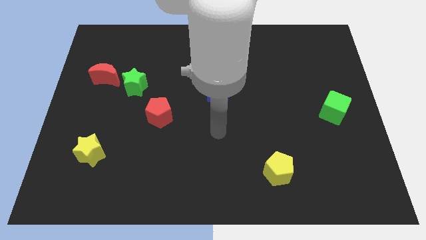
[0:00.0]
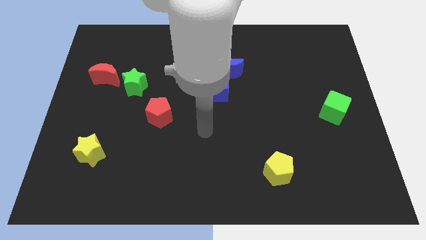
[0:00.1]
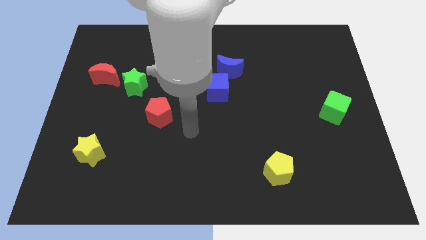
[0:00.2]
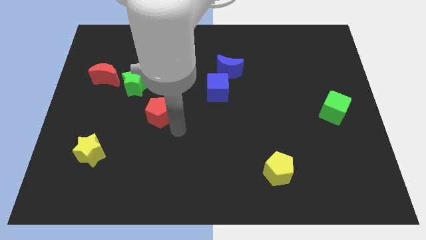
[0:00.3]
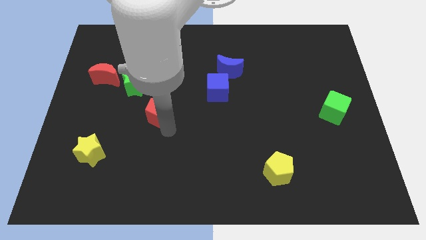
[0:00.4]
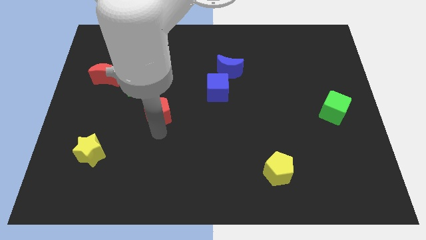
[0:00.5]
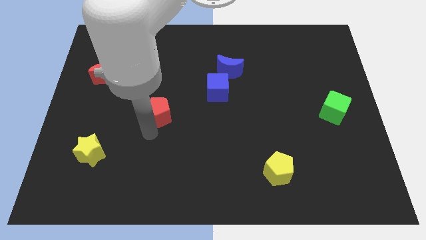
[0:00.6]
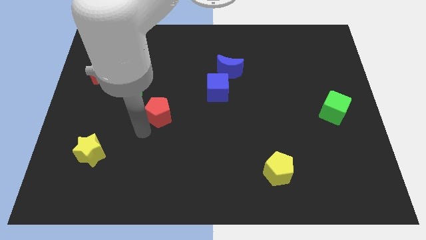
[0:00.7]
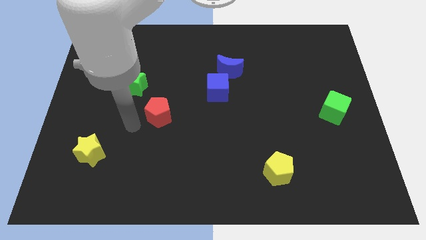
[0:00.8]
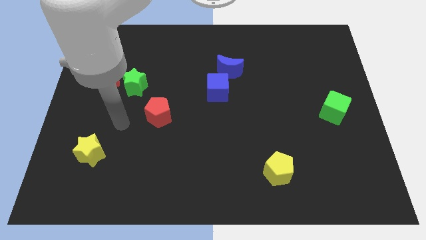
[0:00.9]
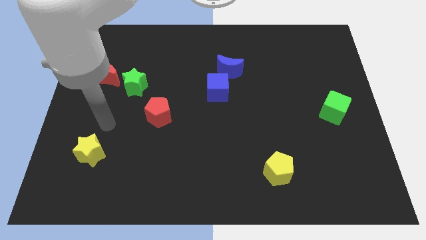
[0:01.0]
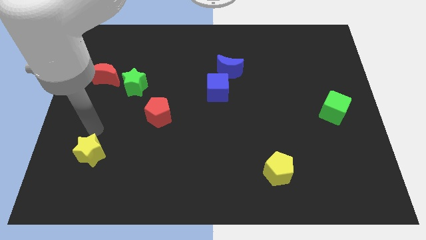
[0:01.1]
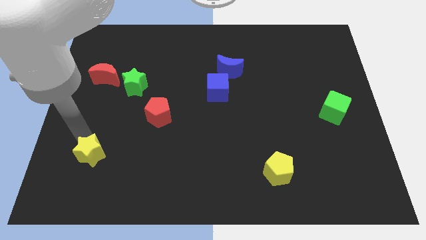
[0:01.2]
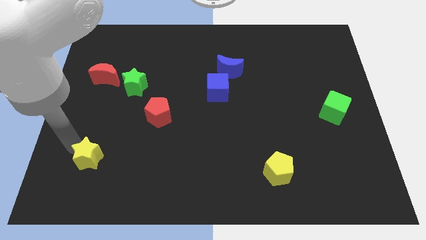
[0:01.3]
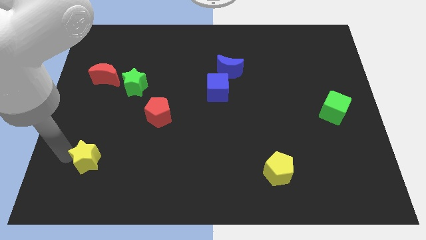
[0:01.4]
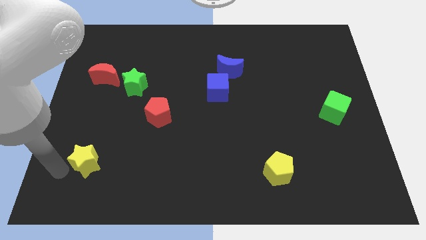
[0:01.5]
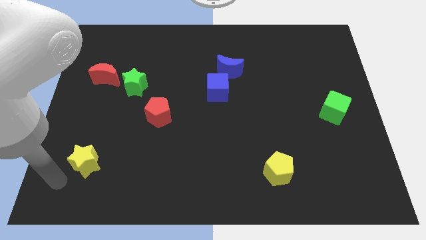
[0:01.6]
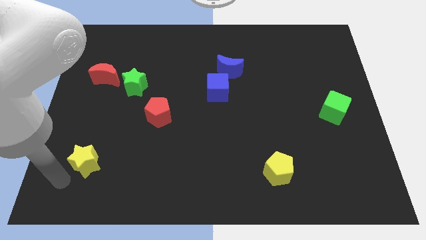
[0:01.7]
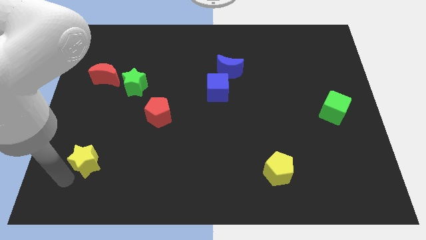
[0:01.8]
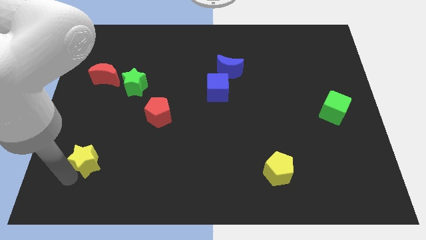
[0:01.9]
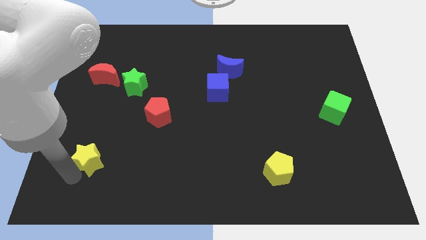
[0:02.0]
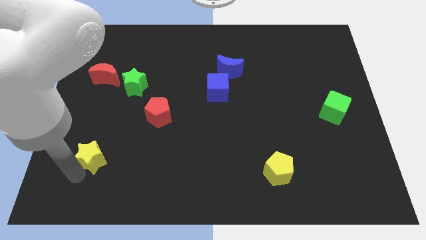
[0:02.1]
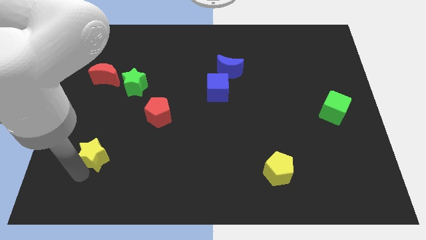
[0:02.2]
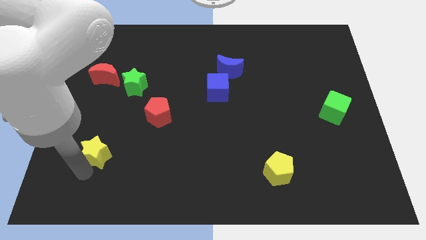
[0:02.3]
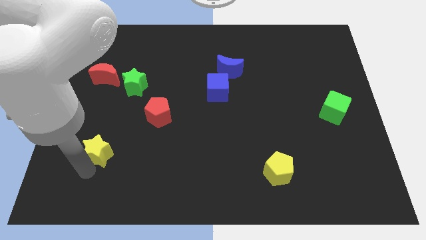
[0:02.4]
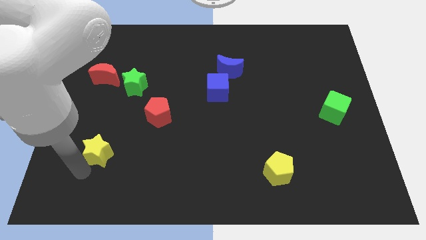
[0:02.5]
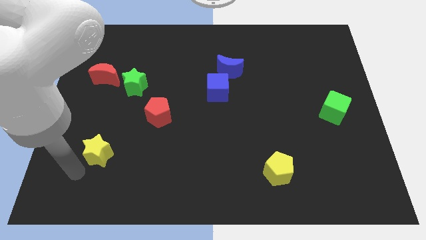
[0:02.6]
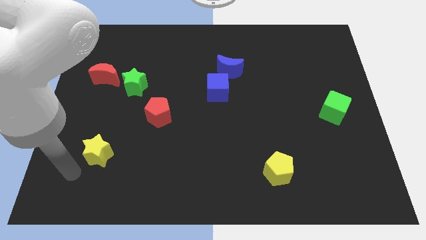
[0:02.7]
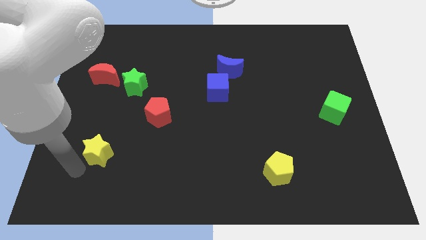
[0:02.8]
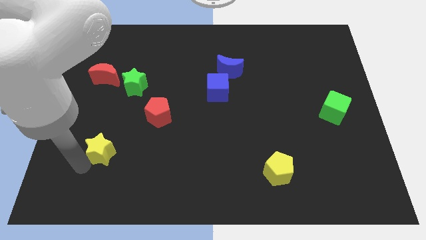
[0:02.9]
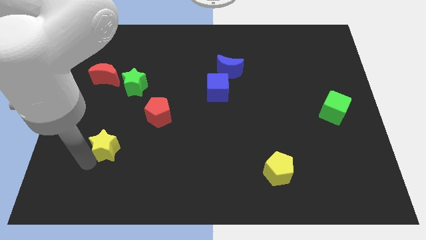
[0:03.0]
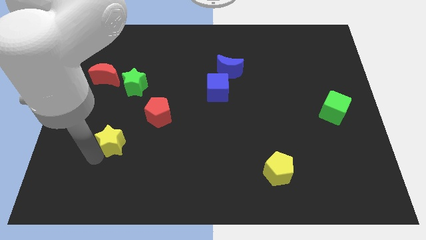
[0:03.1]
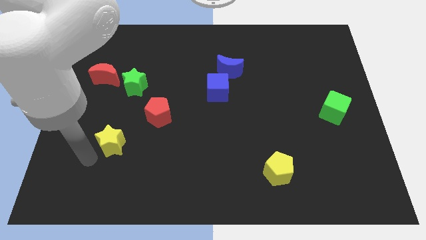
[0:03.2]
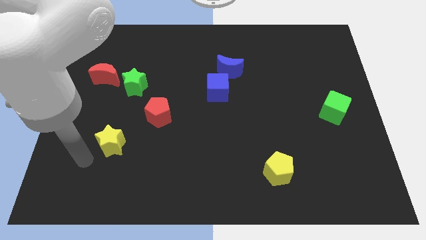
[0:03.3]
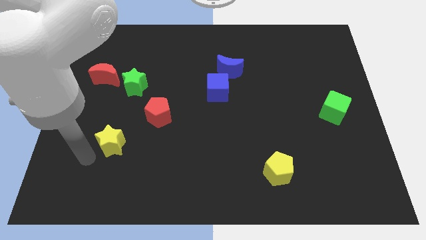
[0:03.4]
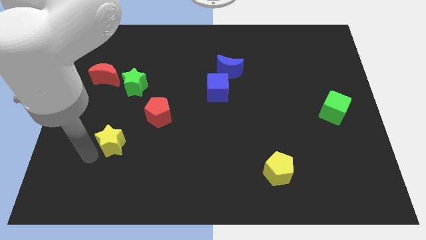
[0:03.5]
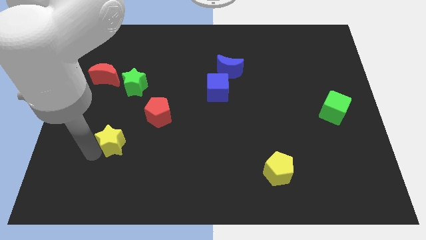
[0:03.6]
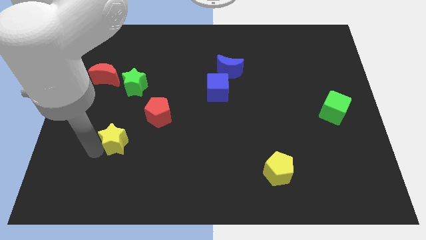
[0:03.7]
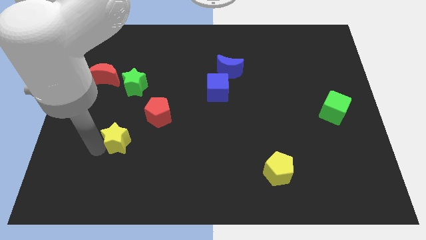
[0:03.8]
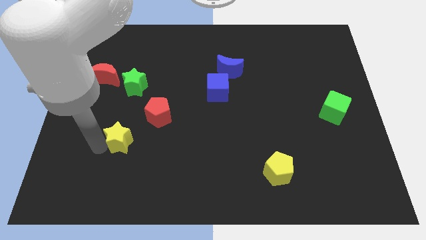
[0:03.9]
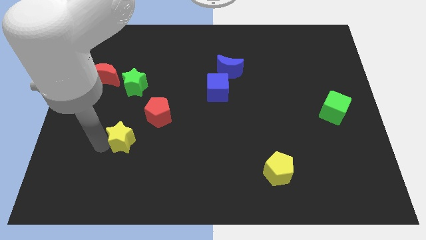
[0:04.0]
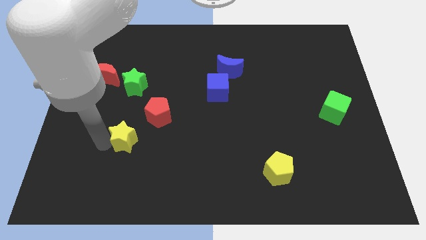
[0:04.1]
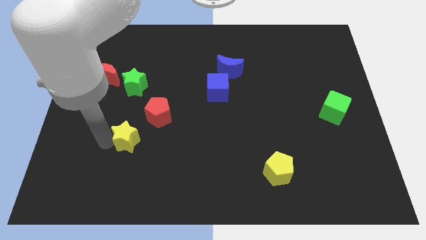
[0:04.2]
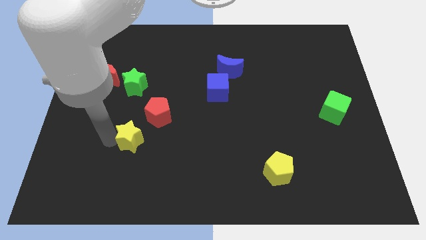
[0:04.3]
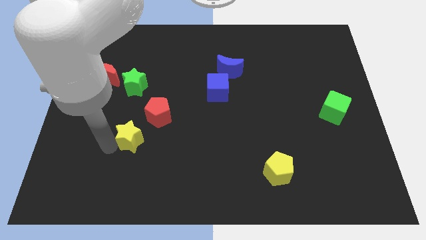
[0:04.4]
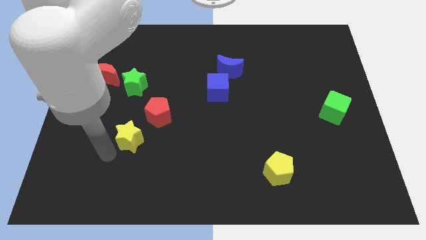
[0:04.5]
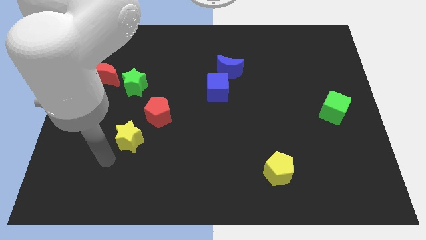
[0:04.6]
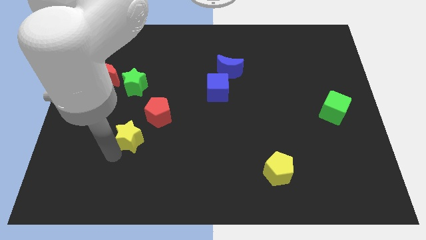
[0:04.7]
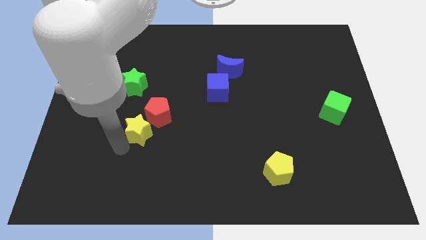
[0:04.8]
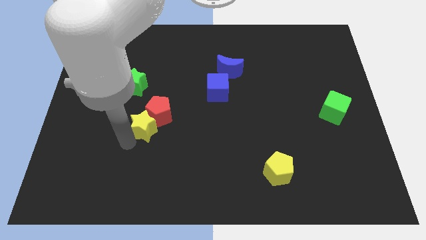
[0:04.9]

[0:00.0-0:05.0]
move the yellow star close to the red pentagon

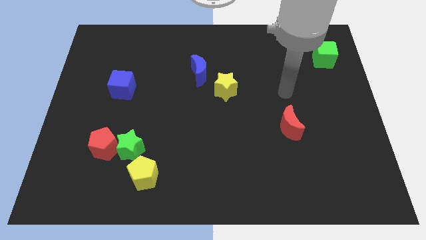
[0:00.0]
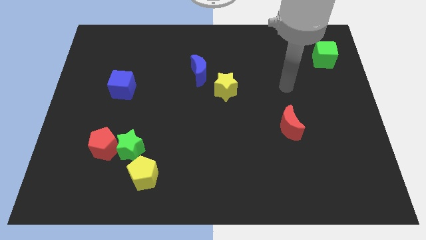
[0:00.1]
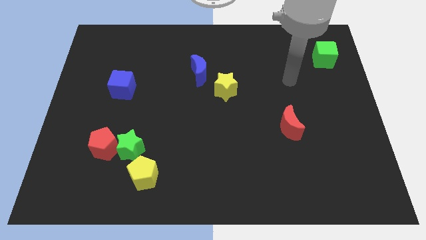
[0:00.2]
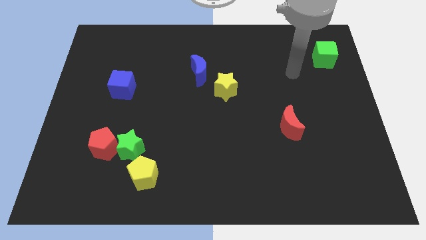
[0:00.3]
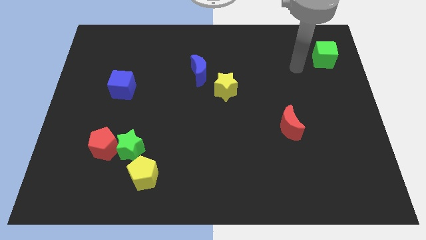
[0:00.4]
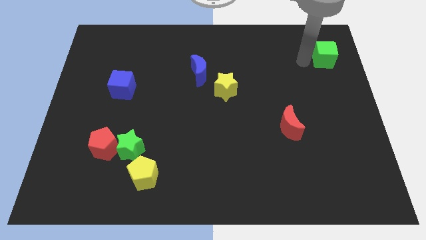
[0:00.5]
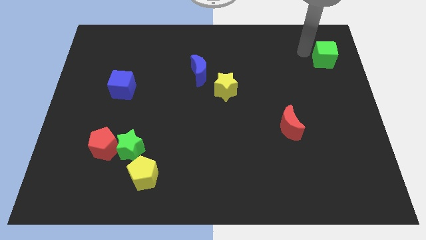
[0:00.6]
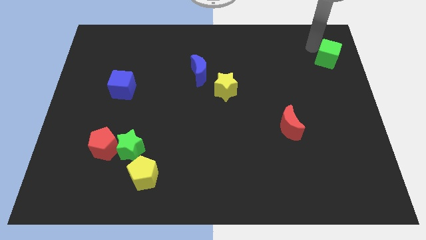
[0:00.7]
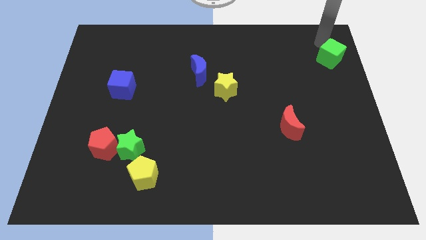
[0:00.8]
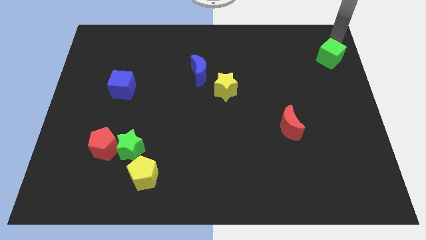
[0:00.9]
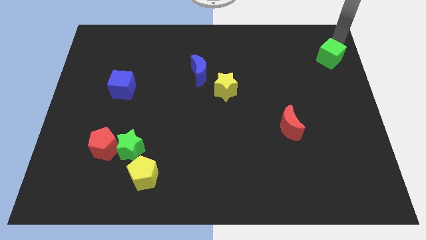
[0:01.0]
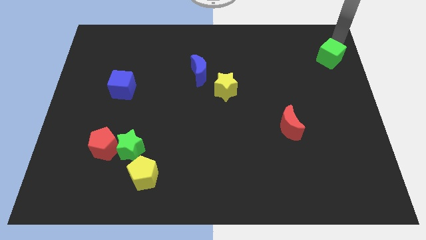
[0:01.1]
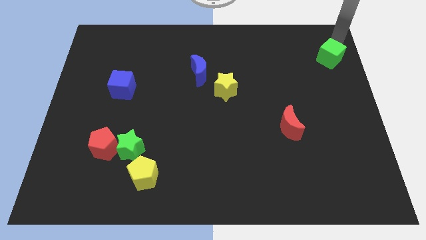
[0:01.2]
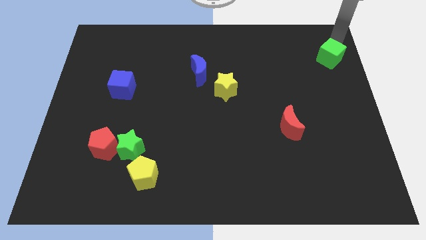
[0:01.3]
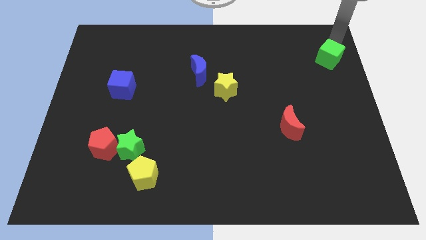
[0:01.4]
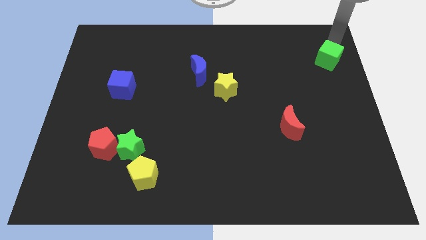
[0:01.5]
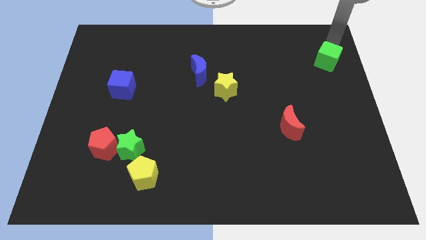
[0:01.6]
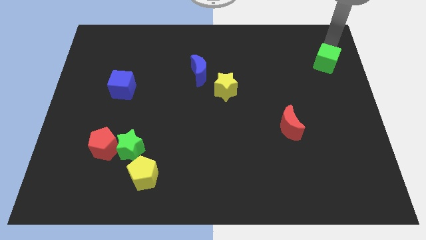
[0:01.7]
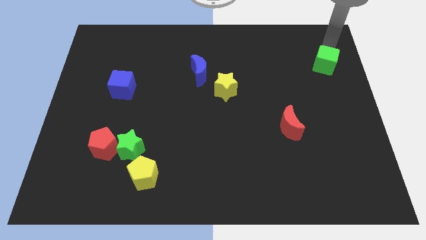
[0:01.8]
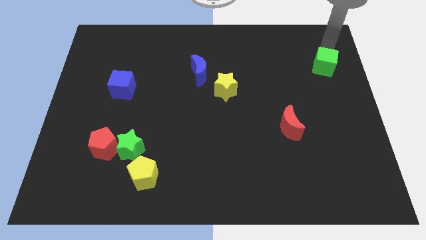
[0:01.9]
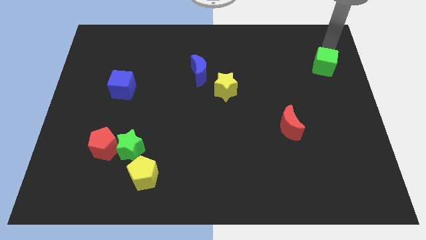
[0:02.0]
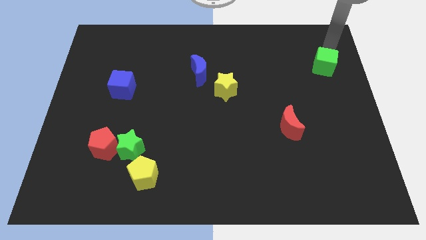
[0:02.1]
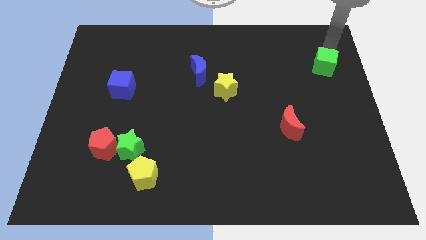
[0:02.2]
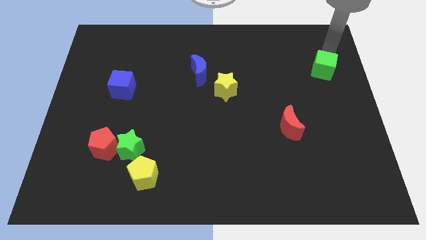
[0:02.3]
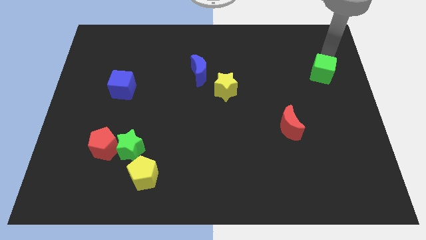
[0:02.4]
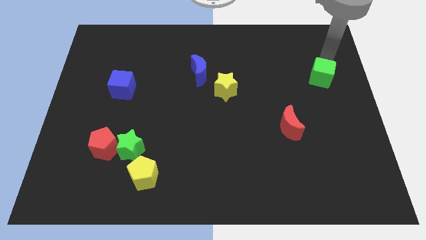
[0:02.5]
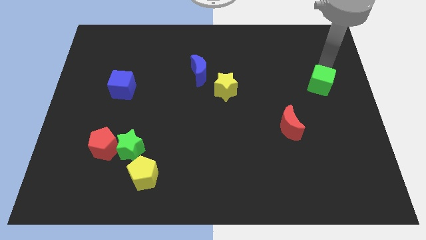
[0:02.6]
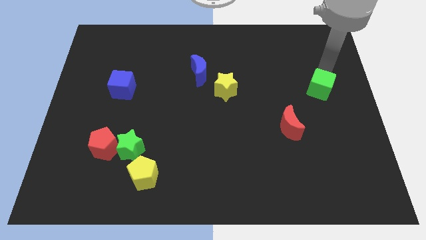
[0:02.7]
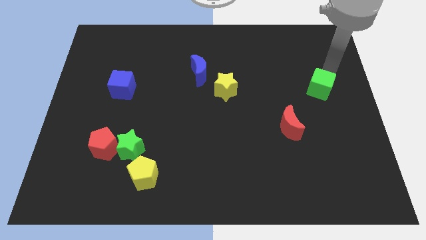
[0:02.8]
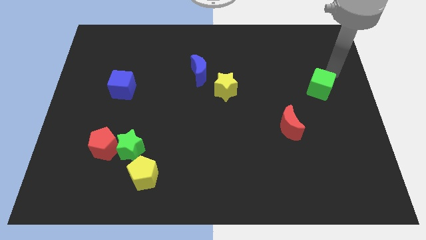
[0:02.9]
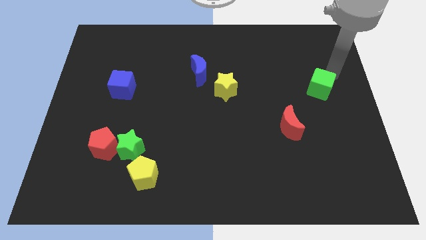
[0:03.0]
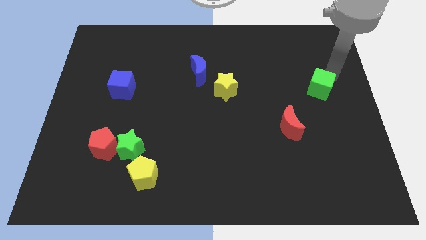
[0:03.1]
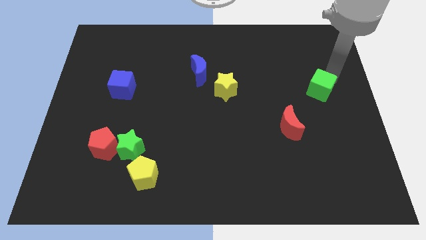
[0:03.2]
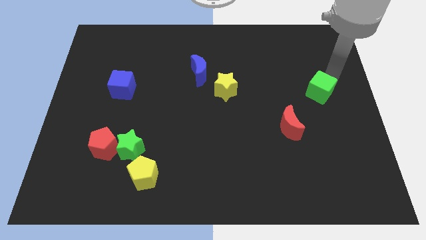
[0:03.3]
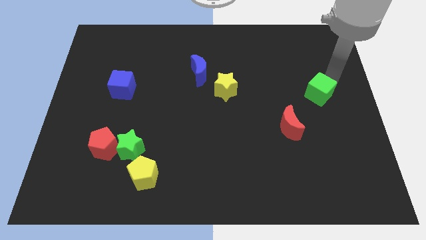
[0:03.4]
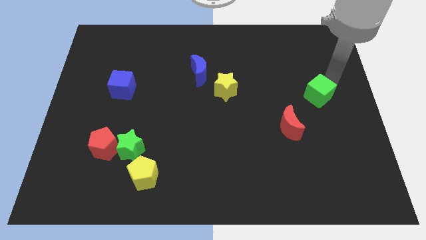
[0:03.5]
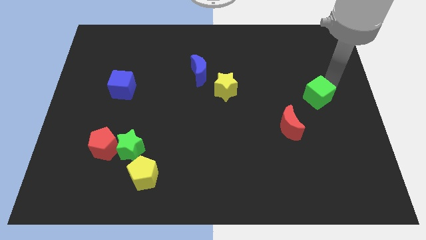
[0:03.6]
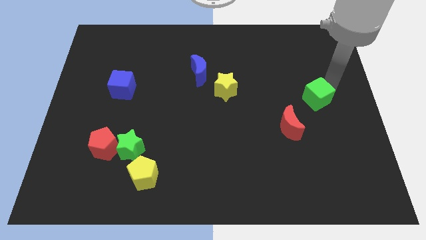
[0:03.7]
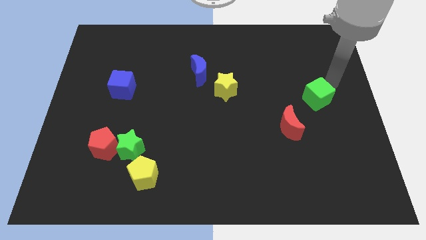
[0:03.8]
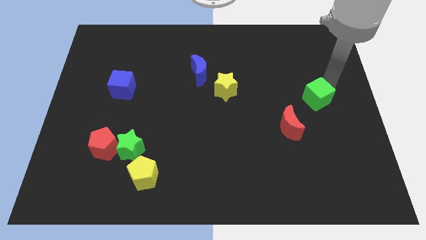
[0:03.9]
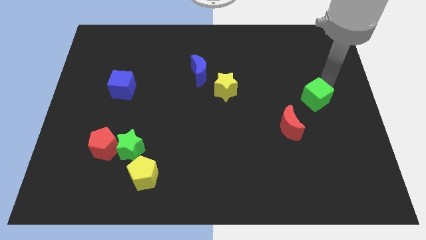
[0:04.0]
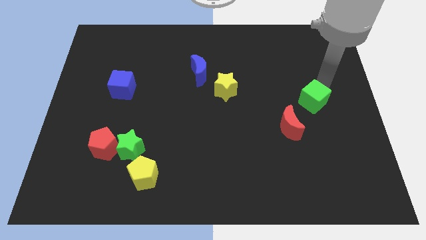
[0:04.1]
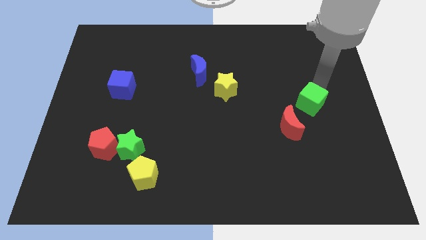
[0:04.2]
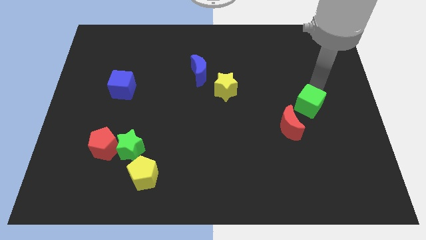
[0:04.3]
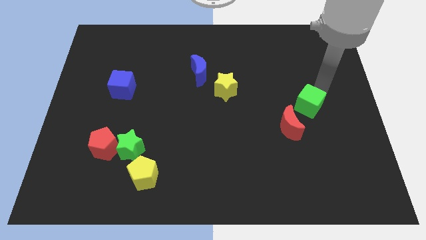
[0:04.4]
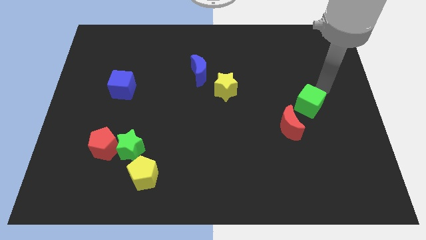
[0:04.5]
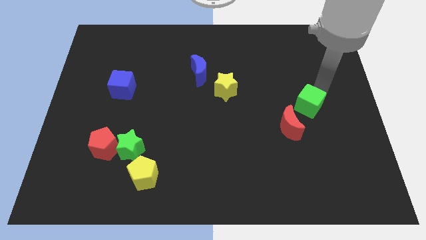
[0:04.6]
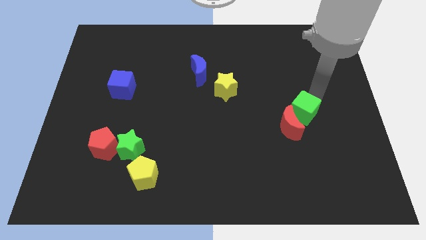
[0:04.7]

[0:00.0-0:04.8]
push the green cube close to the red moon
